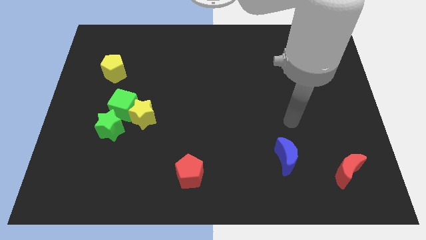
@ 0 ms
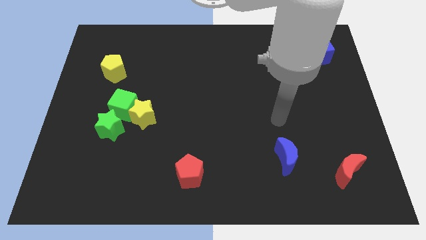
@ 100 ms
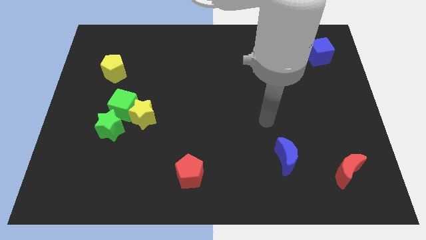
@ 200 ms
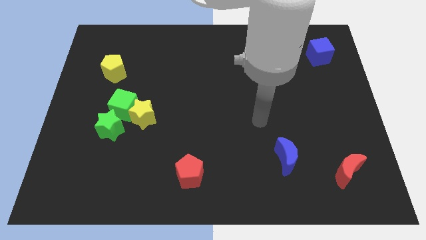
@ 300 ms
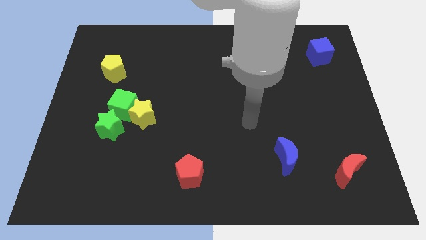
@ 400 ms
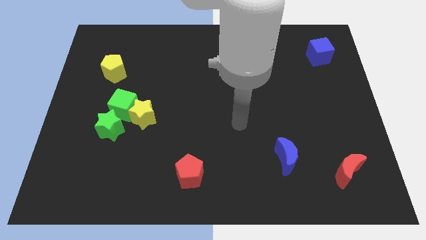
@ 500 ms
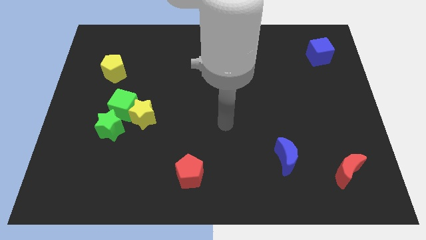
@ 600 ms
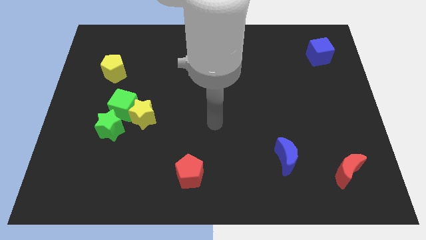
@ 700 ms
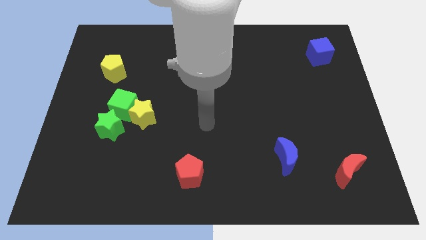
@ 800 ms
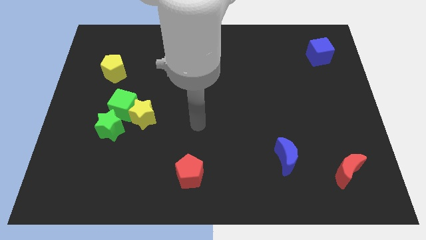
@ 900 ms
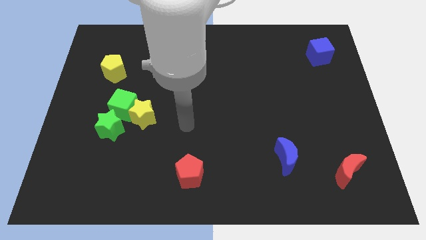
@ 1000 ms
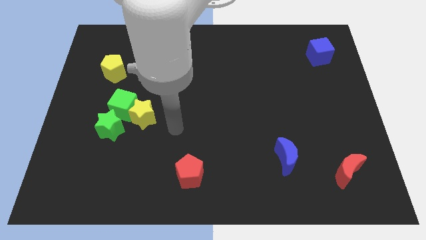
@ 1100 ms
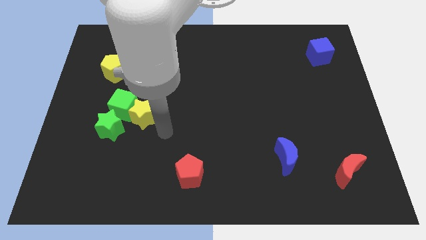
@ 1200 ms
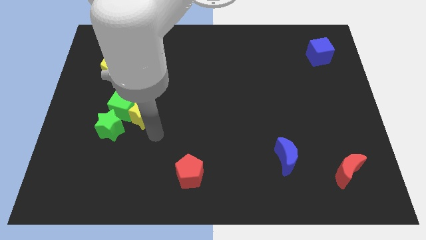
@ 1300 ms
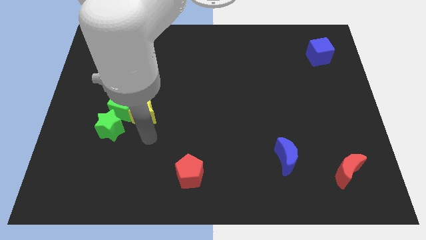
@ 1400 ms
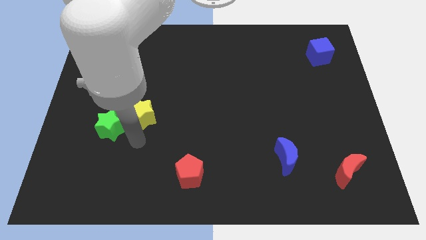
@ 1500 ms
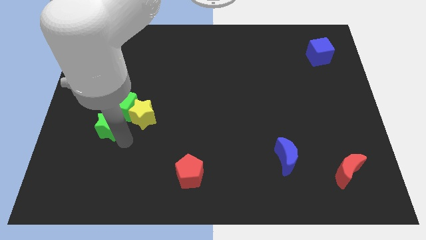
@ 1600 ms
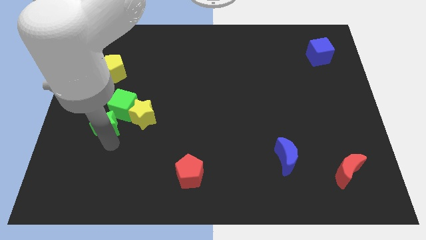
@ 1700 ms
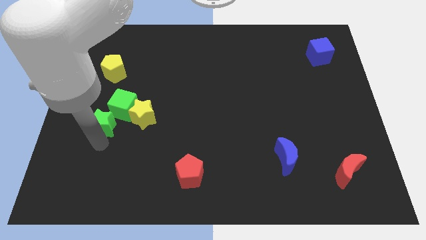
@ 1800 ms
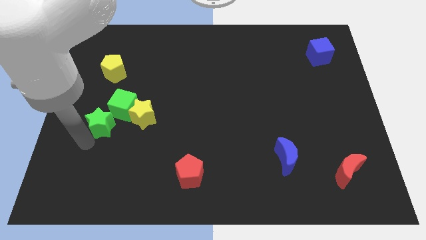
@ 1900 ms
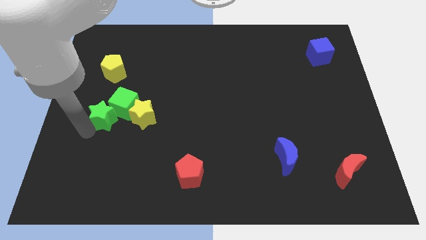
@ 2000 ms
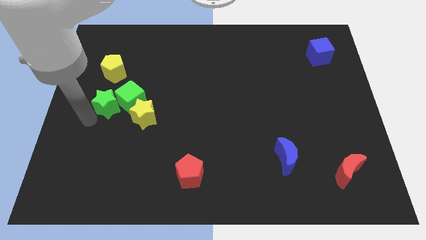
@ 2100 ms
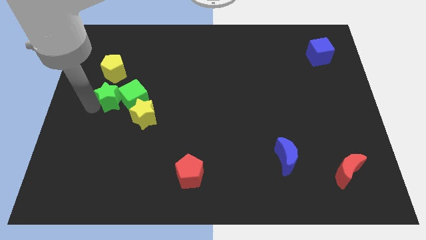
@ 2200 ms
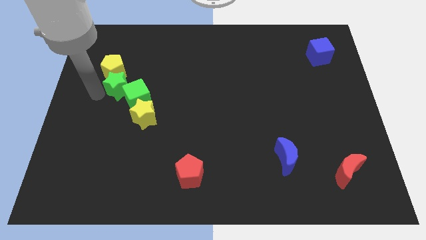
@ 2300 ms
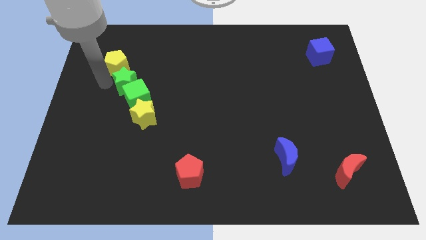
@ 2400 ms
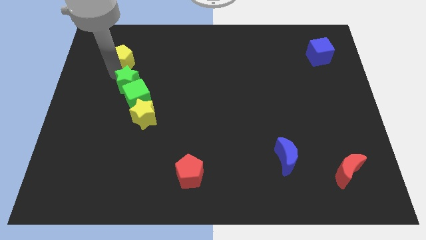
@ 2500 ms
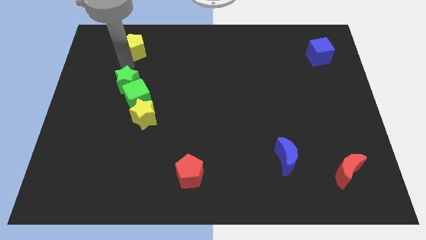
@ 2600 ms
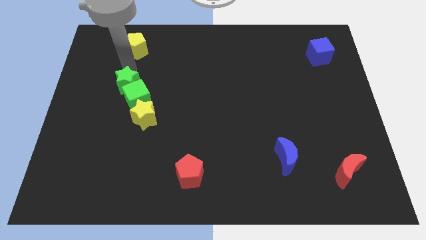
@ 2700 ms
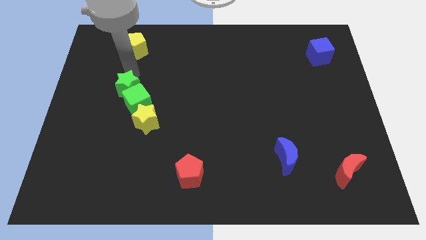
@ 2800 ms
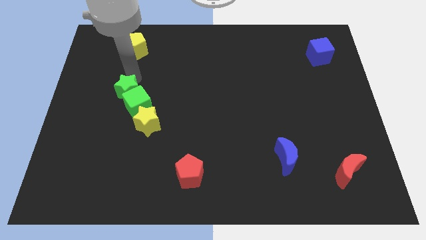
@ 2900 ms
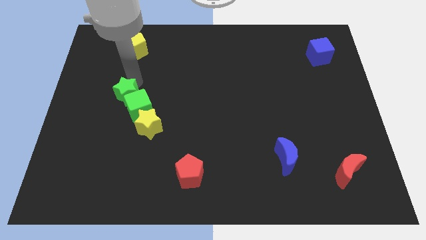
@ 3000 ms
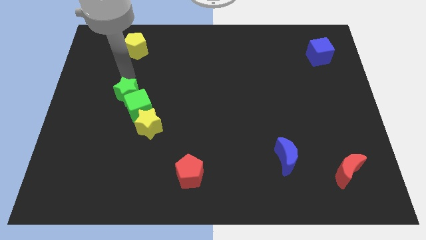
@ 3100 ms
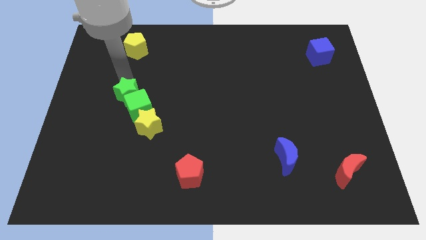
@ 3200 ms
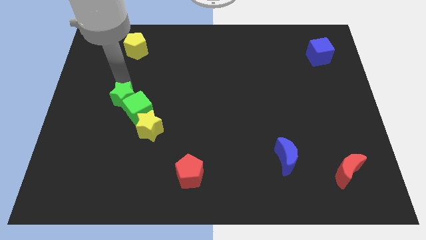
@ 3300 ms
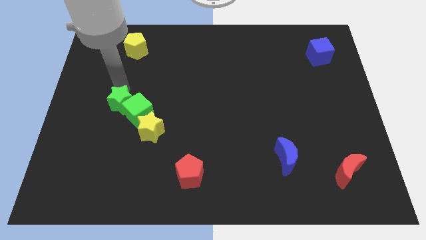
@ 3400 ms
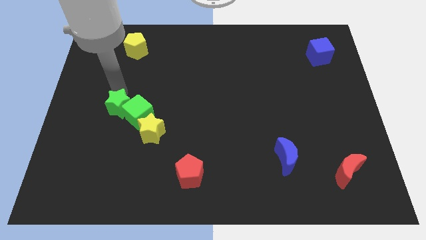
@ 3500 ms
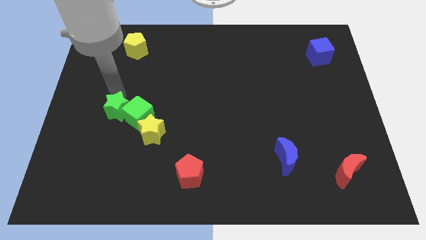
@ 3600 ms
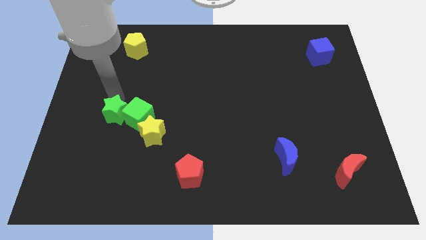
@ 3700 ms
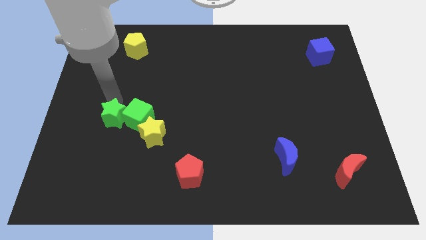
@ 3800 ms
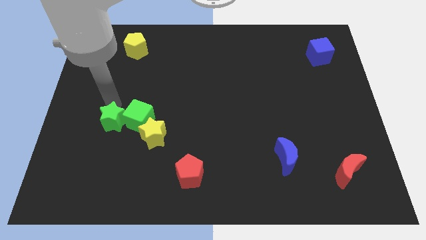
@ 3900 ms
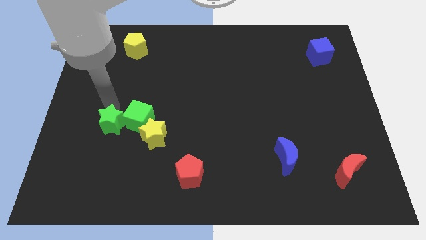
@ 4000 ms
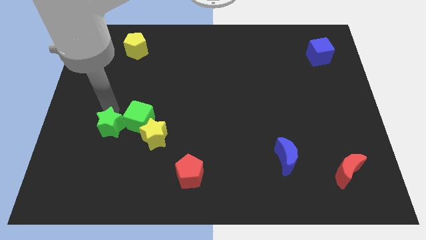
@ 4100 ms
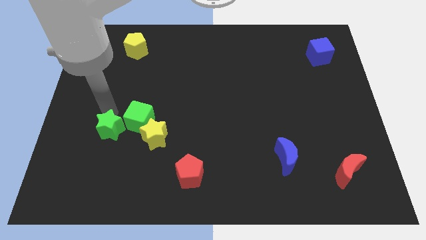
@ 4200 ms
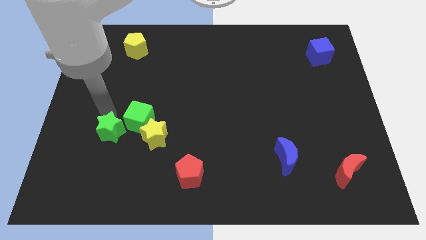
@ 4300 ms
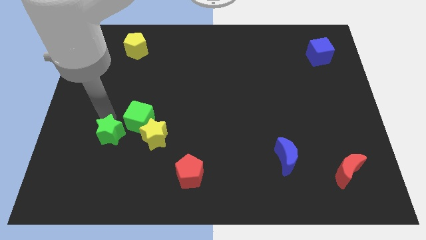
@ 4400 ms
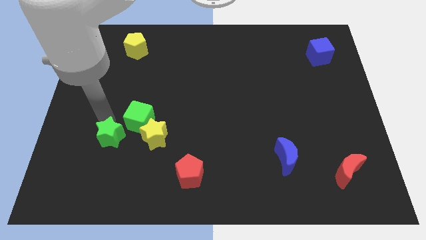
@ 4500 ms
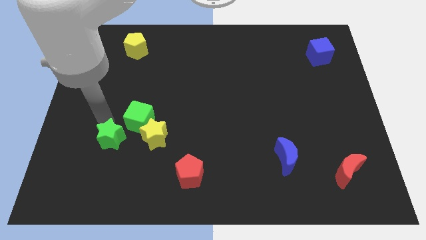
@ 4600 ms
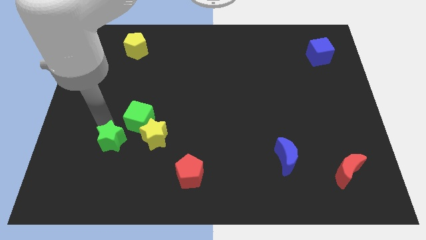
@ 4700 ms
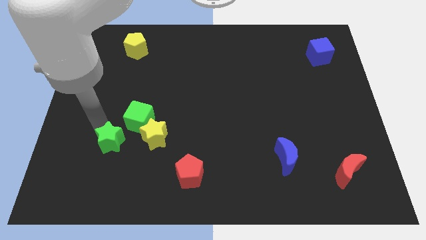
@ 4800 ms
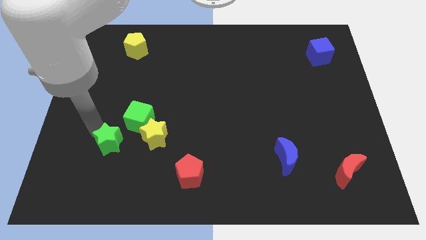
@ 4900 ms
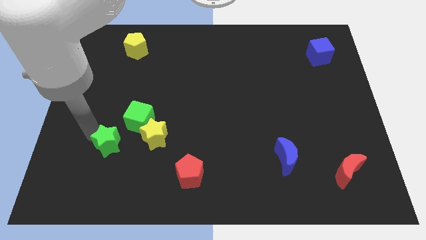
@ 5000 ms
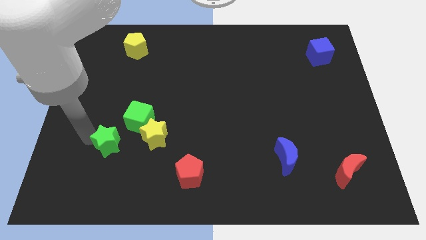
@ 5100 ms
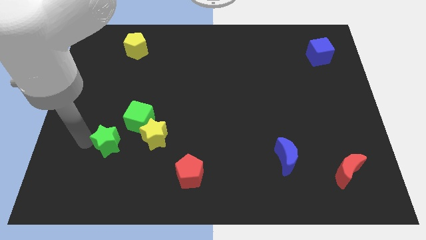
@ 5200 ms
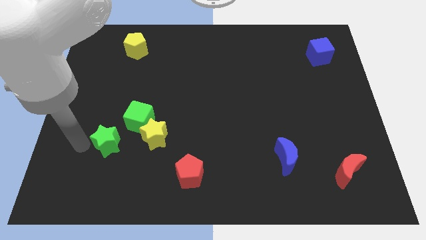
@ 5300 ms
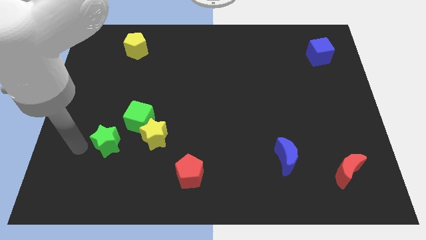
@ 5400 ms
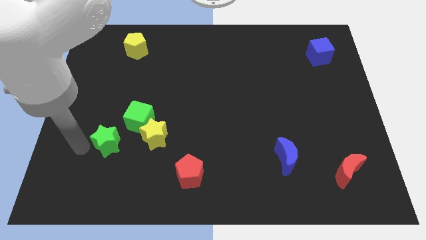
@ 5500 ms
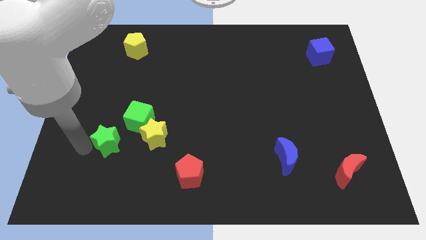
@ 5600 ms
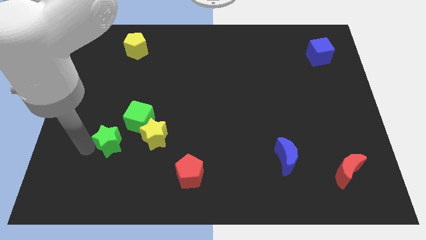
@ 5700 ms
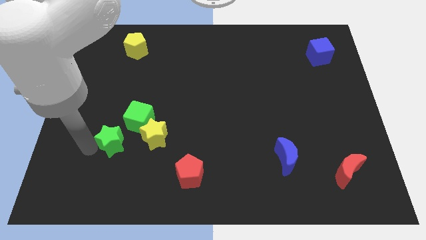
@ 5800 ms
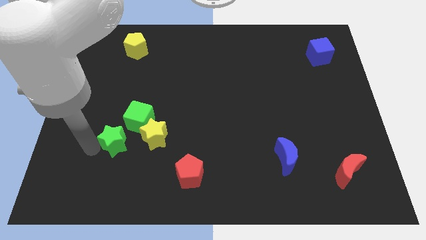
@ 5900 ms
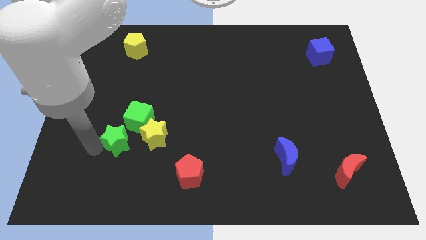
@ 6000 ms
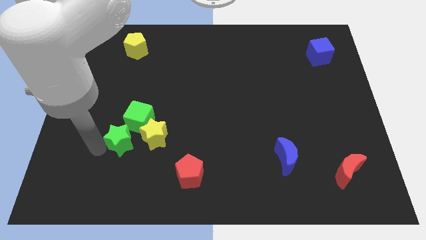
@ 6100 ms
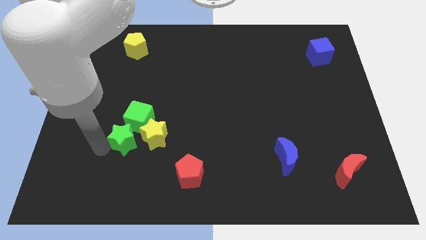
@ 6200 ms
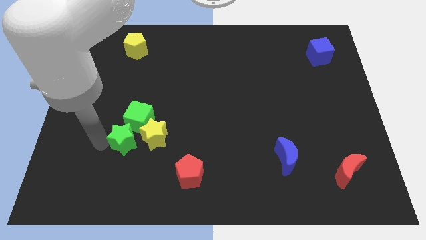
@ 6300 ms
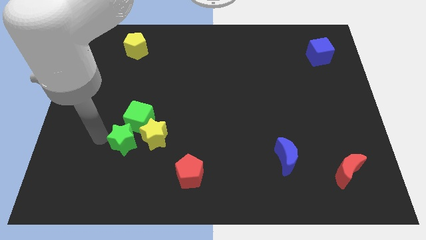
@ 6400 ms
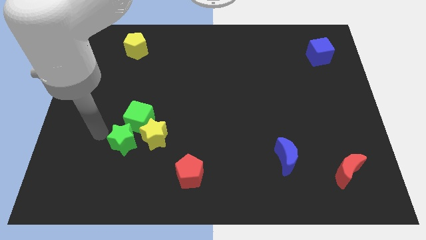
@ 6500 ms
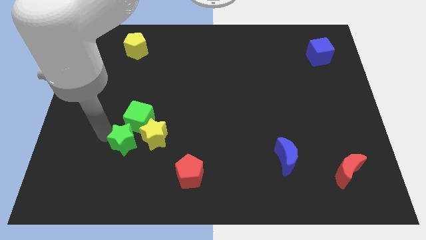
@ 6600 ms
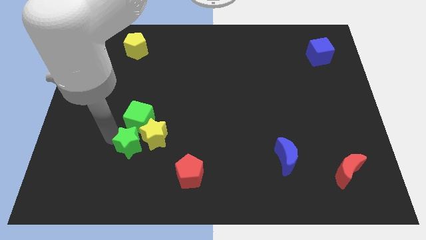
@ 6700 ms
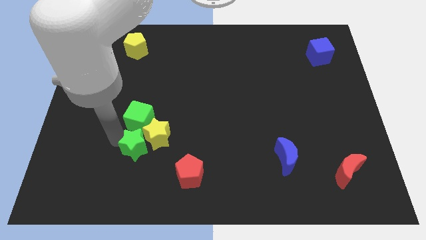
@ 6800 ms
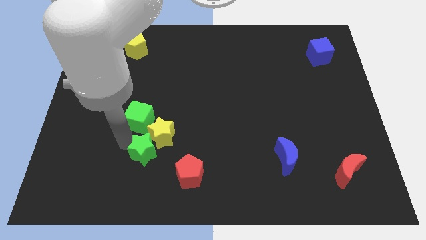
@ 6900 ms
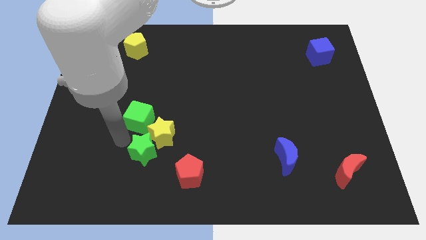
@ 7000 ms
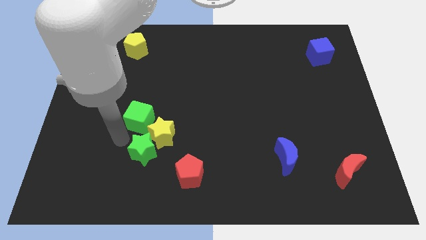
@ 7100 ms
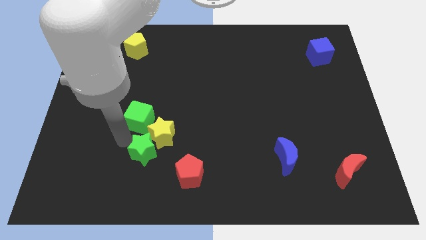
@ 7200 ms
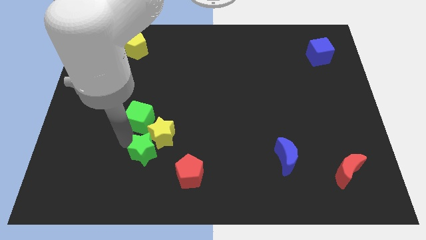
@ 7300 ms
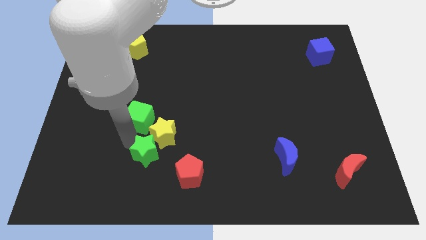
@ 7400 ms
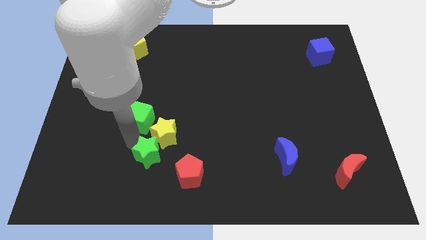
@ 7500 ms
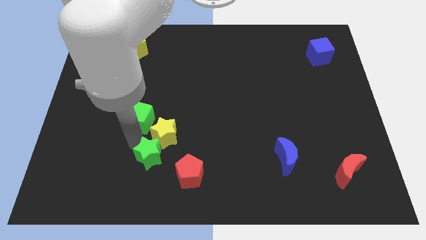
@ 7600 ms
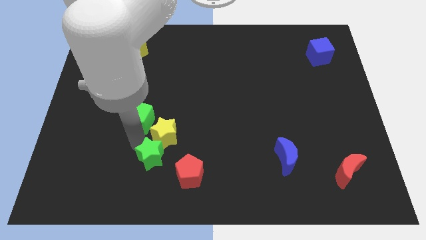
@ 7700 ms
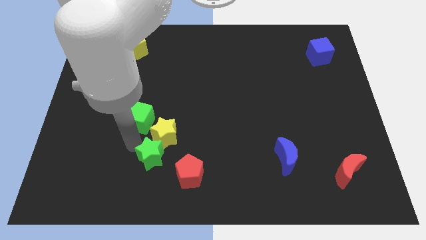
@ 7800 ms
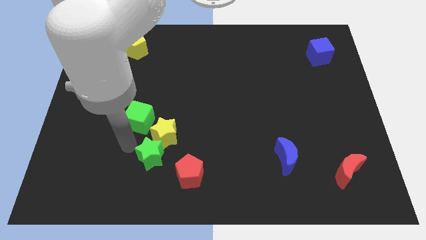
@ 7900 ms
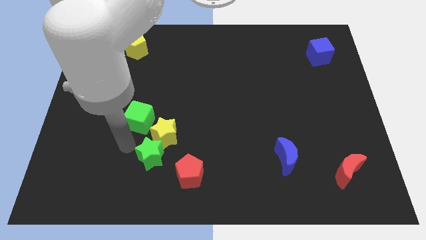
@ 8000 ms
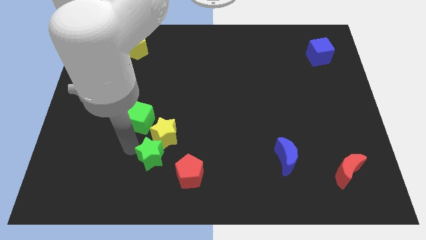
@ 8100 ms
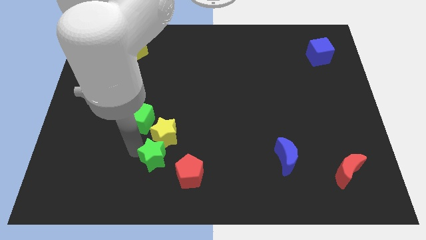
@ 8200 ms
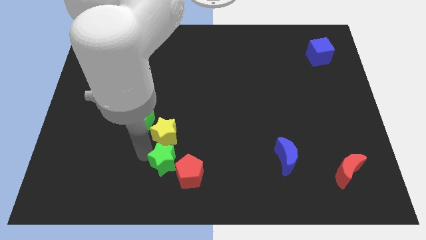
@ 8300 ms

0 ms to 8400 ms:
move the green star close to the red pentagon
